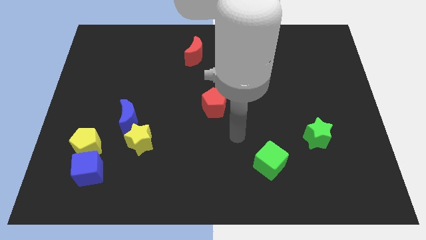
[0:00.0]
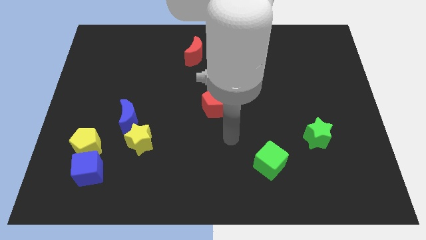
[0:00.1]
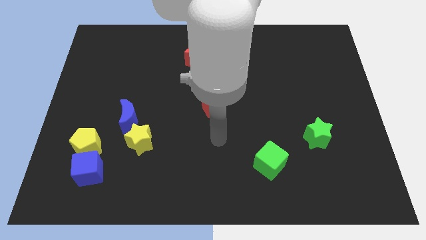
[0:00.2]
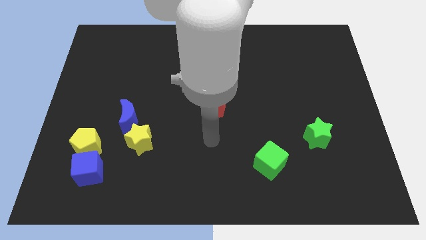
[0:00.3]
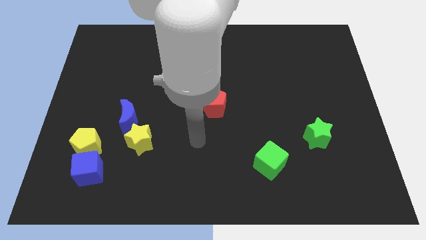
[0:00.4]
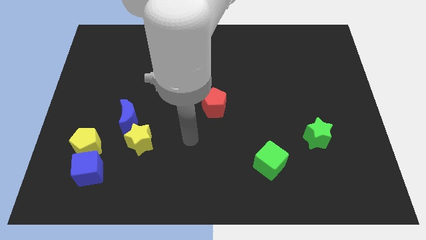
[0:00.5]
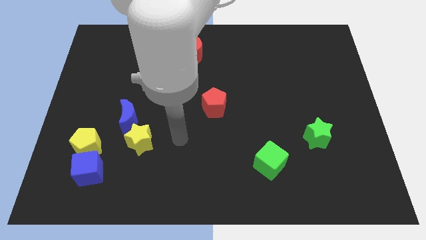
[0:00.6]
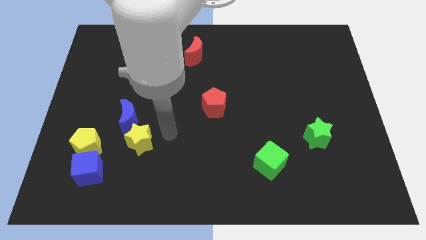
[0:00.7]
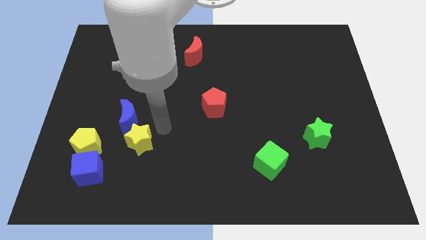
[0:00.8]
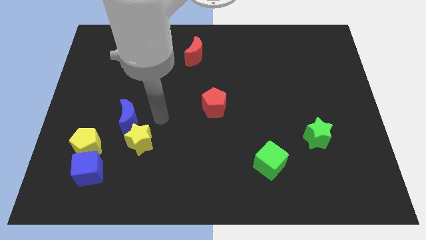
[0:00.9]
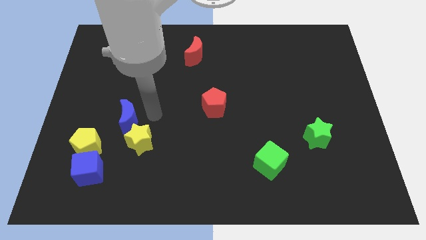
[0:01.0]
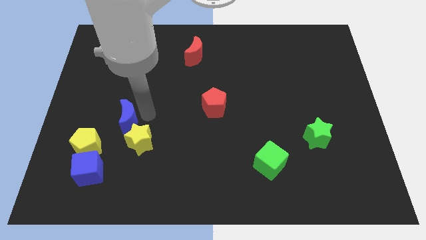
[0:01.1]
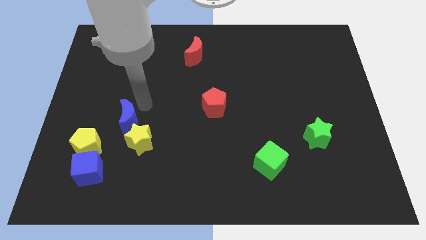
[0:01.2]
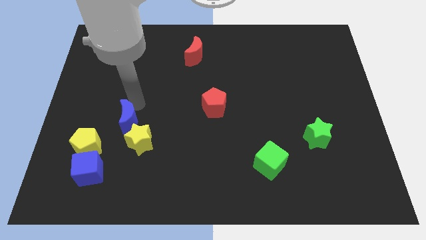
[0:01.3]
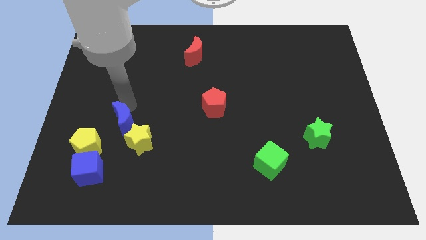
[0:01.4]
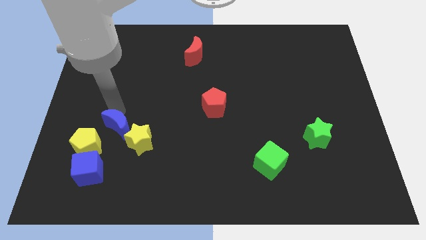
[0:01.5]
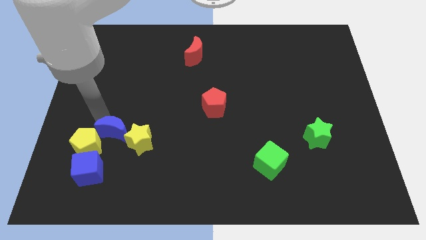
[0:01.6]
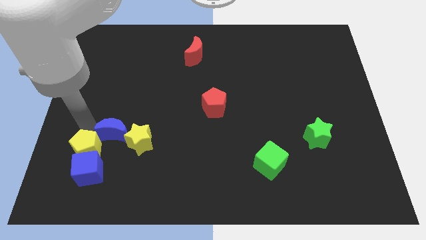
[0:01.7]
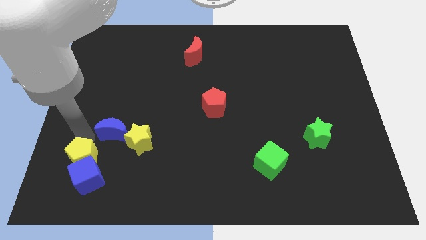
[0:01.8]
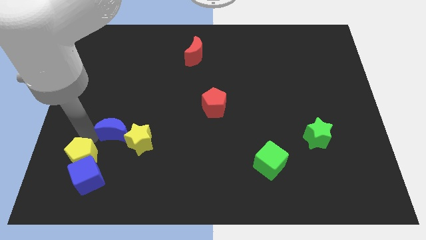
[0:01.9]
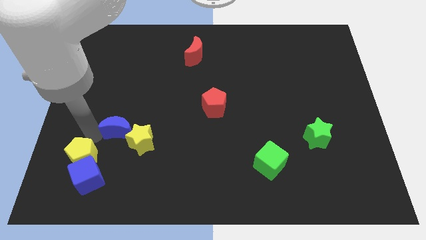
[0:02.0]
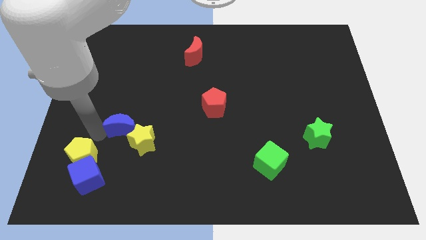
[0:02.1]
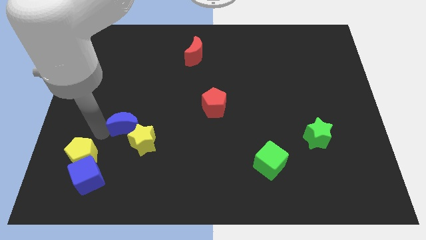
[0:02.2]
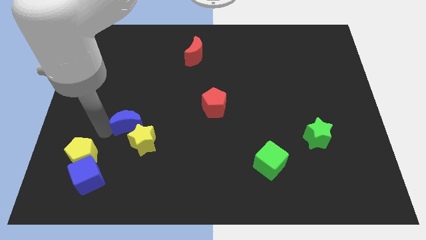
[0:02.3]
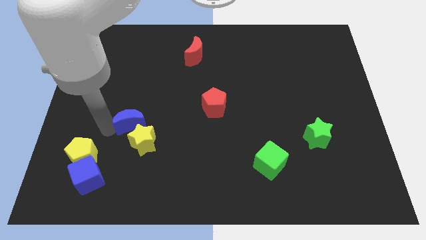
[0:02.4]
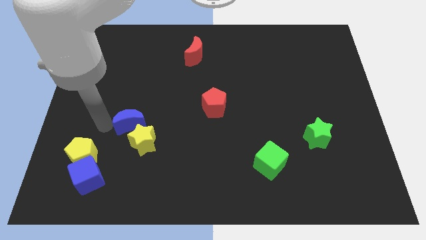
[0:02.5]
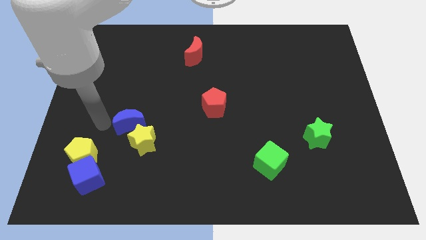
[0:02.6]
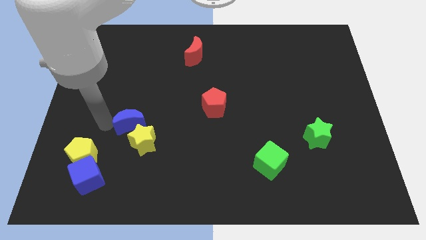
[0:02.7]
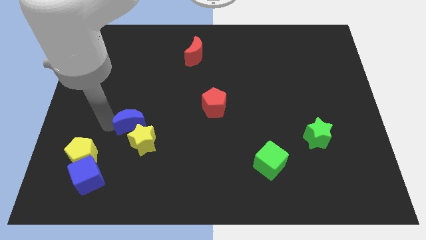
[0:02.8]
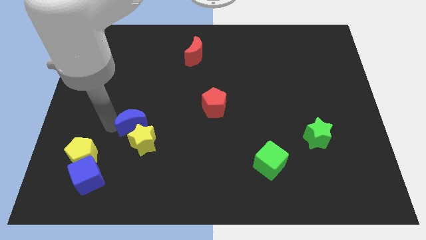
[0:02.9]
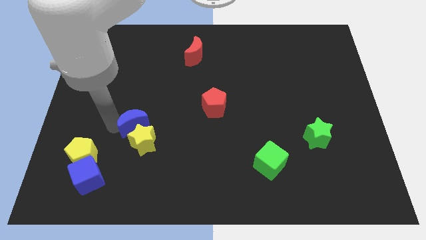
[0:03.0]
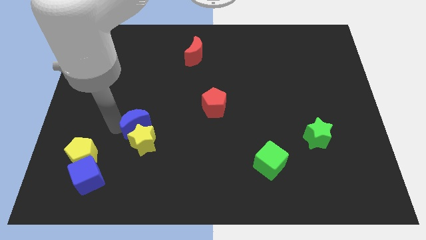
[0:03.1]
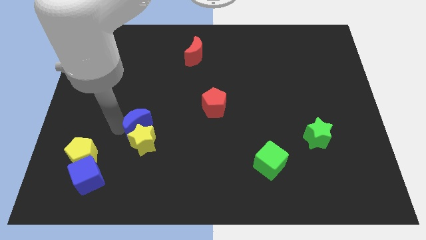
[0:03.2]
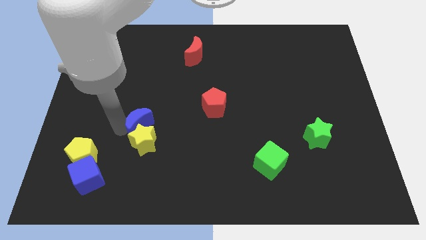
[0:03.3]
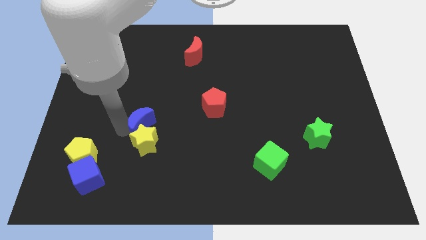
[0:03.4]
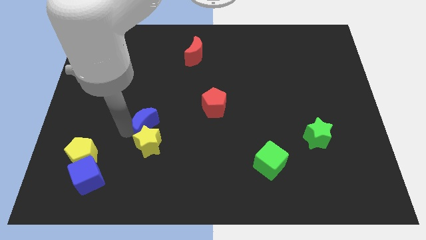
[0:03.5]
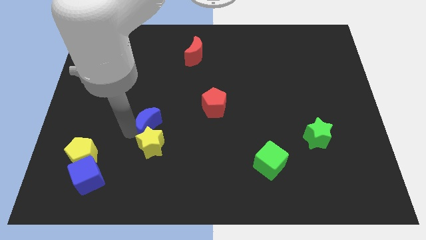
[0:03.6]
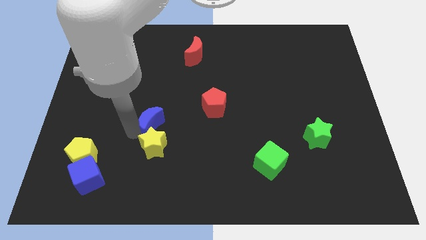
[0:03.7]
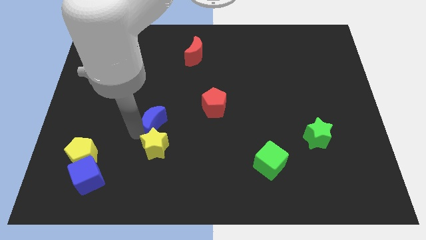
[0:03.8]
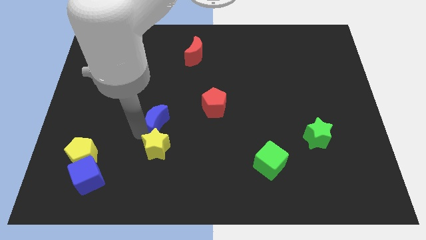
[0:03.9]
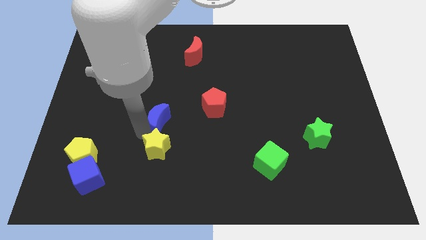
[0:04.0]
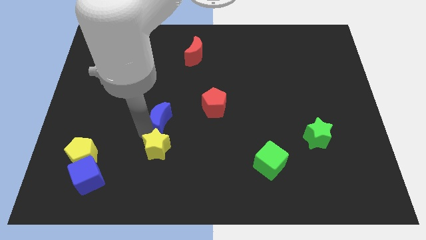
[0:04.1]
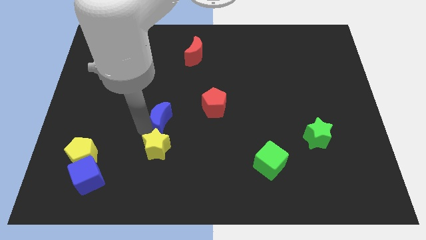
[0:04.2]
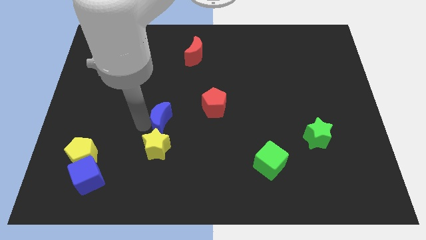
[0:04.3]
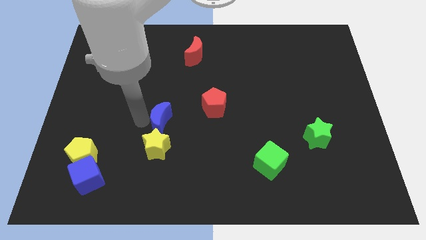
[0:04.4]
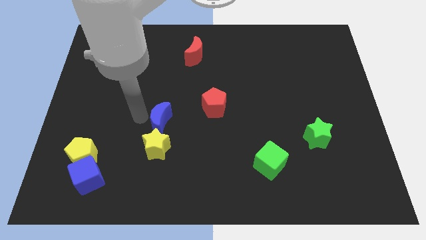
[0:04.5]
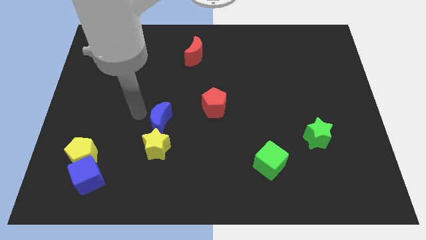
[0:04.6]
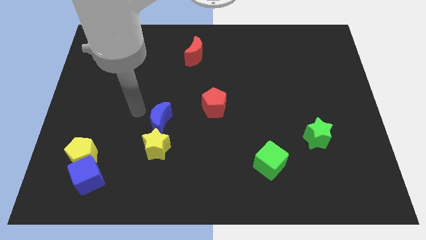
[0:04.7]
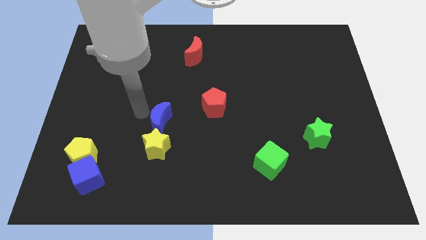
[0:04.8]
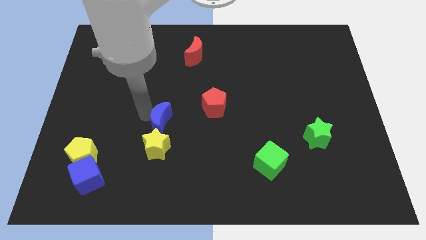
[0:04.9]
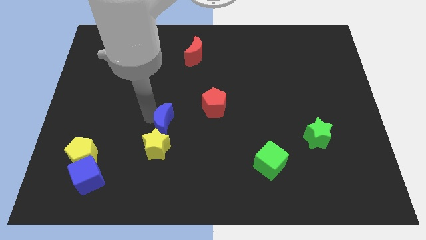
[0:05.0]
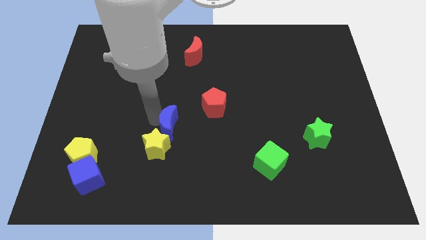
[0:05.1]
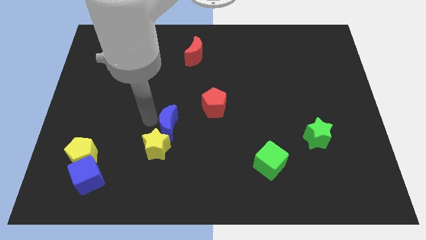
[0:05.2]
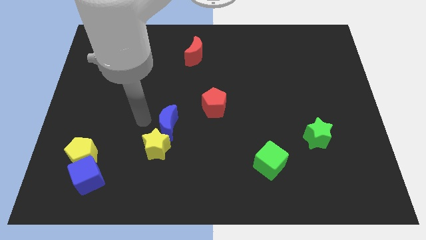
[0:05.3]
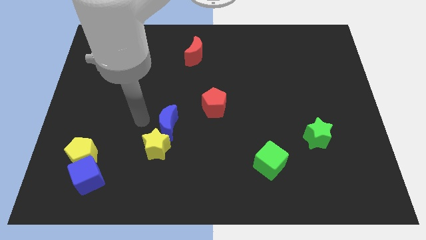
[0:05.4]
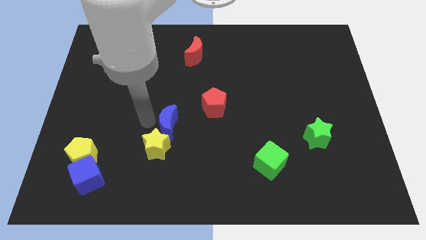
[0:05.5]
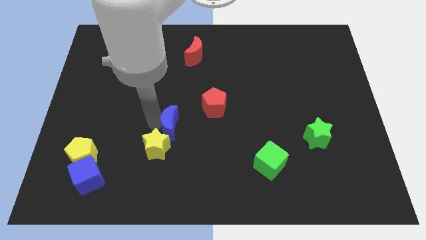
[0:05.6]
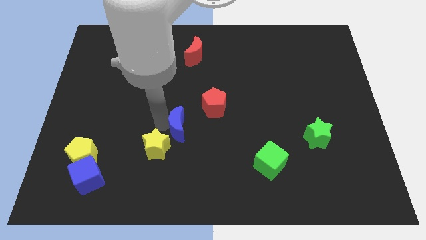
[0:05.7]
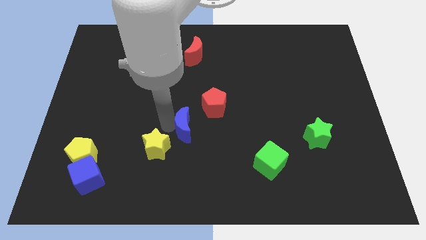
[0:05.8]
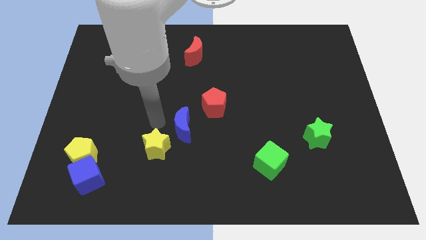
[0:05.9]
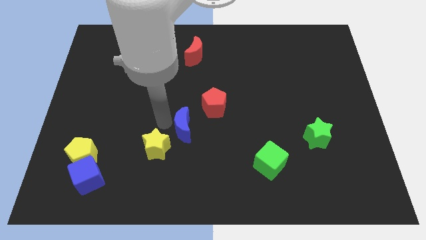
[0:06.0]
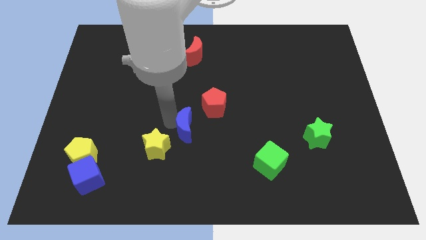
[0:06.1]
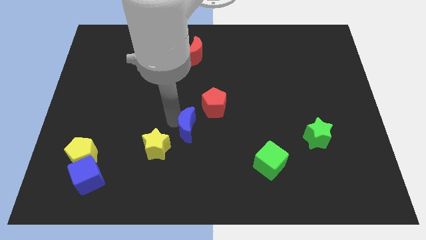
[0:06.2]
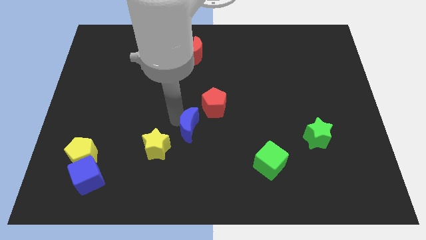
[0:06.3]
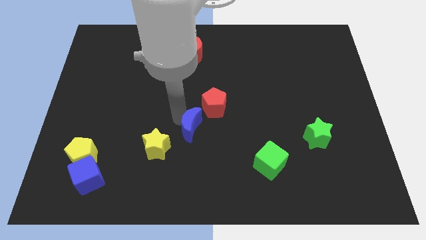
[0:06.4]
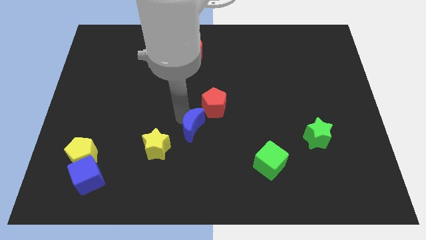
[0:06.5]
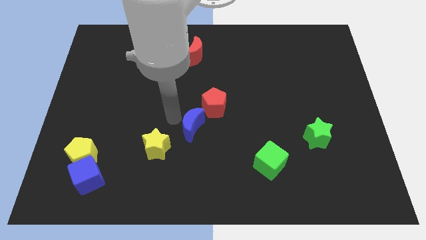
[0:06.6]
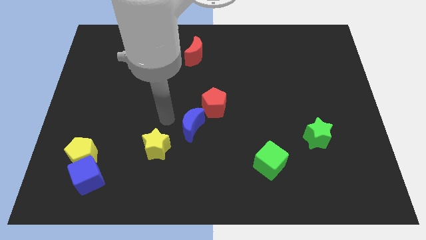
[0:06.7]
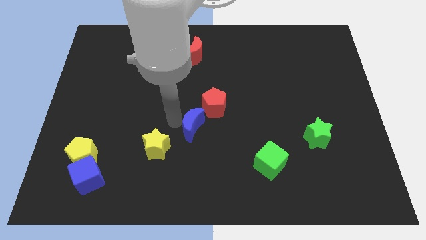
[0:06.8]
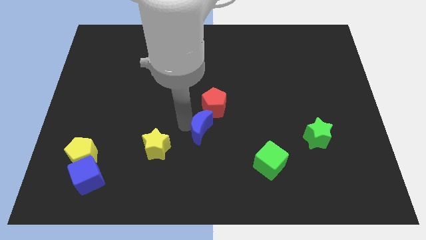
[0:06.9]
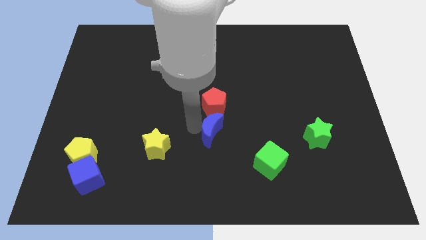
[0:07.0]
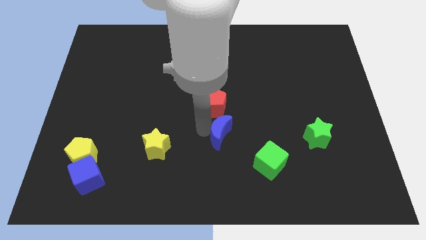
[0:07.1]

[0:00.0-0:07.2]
push the blue moon to the top left of the green cube
